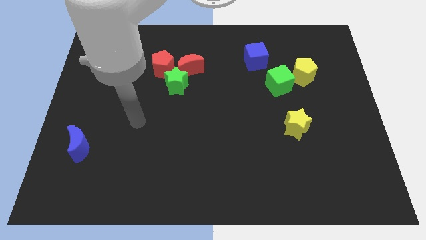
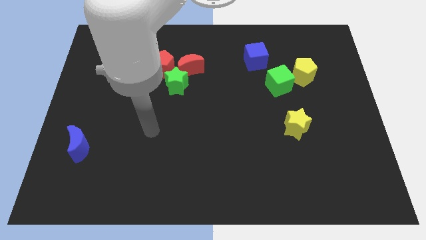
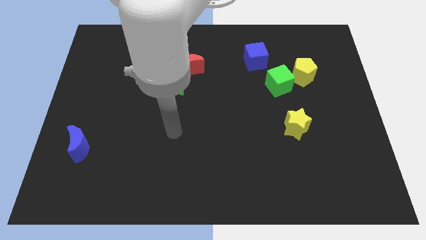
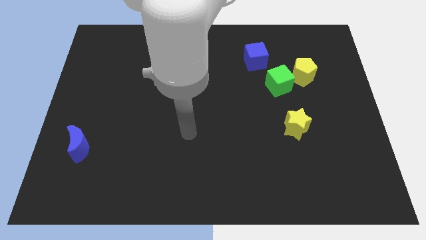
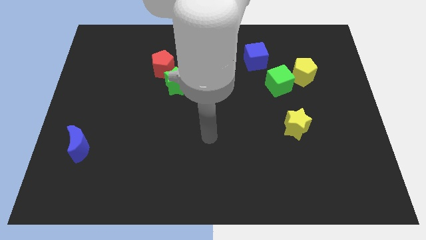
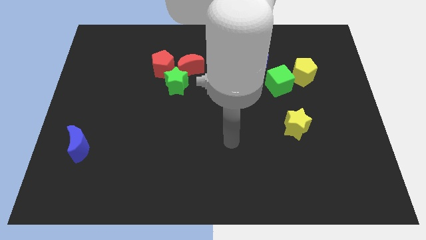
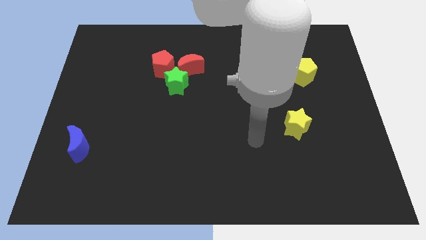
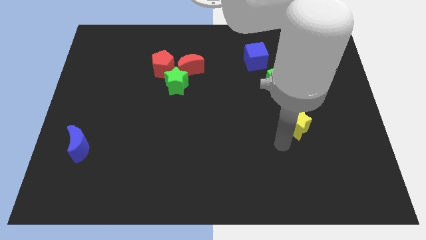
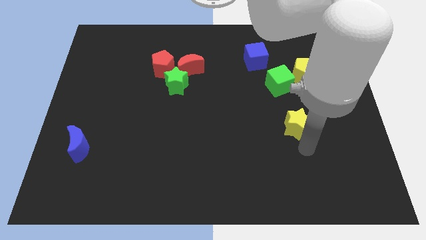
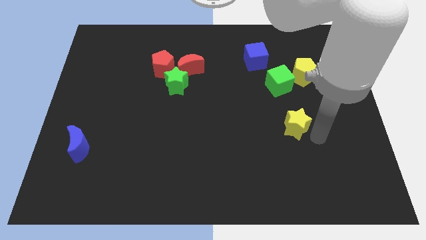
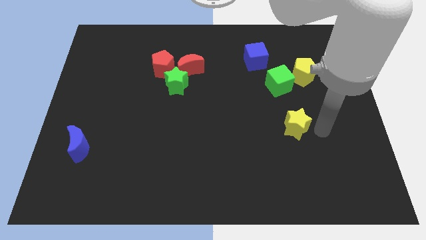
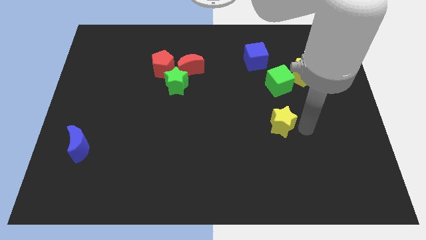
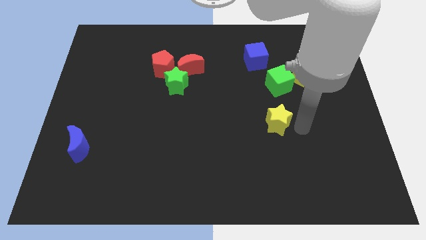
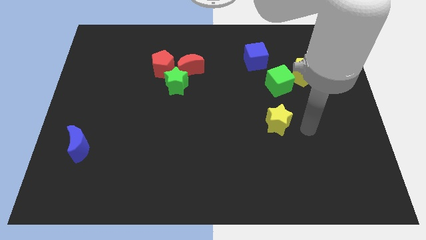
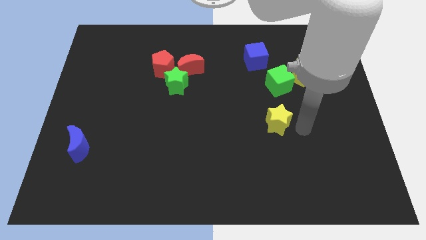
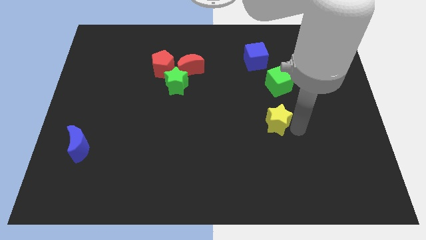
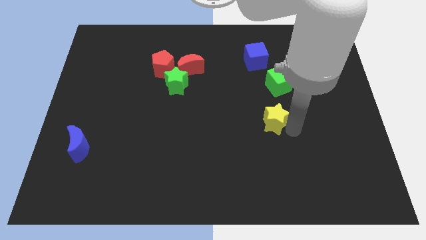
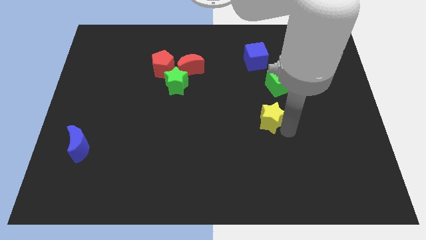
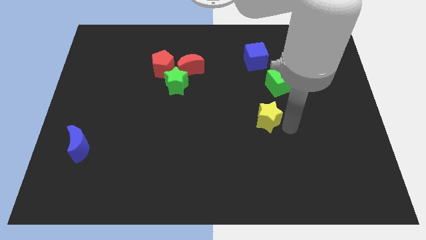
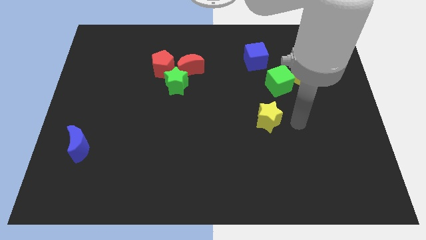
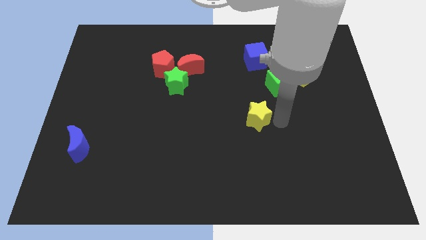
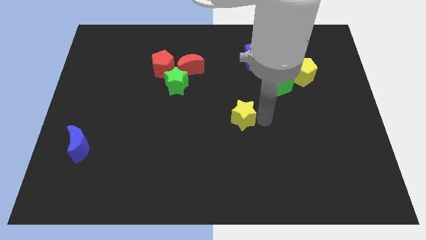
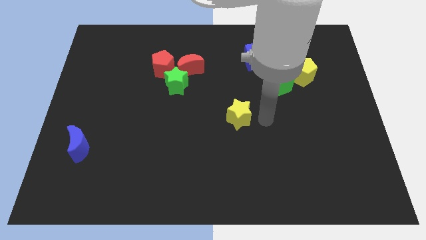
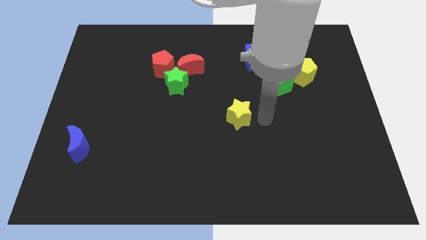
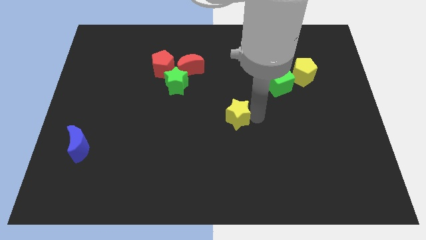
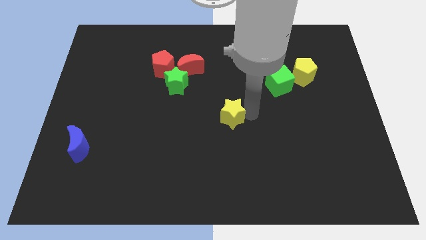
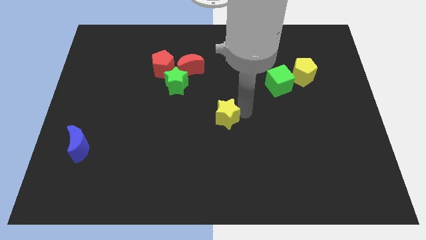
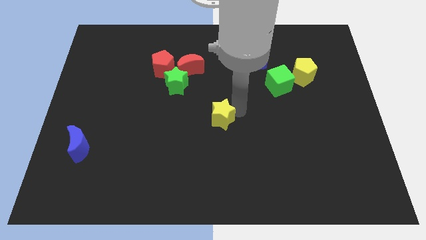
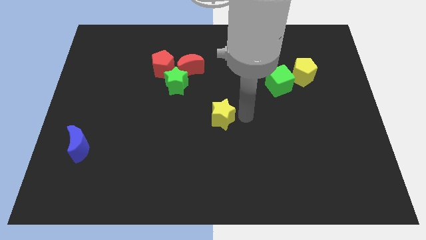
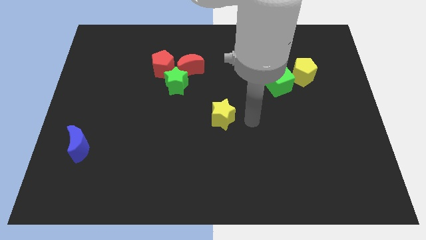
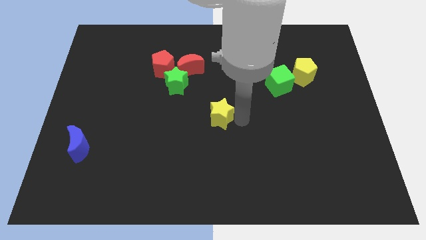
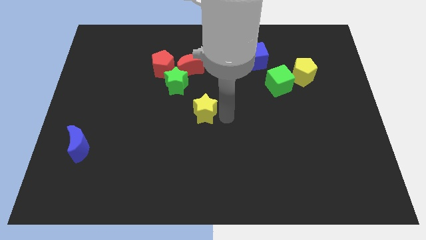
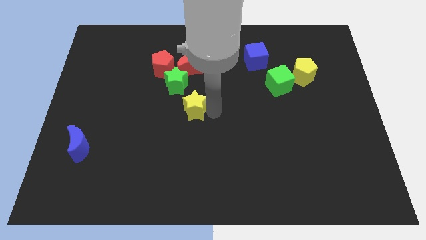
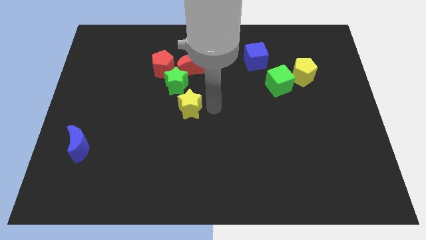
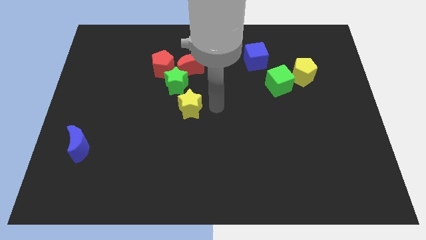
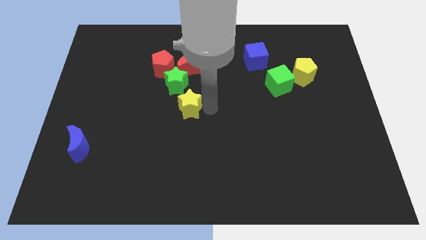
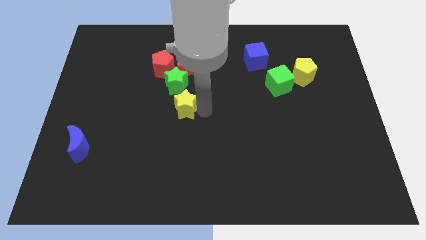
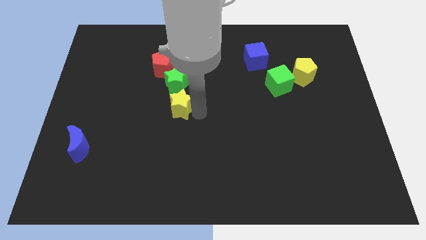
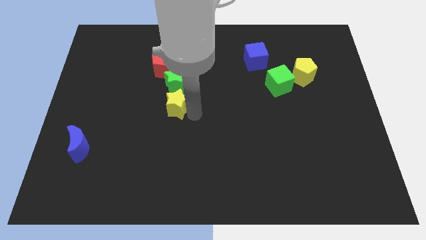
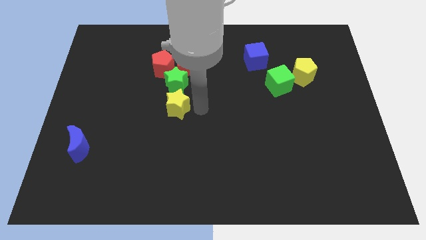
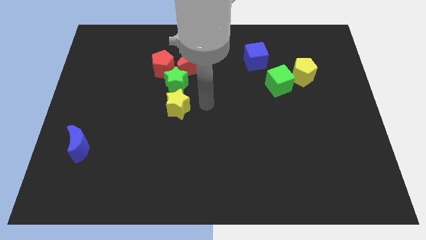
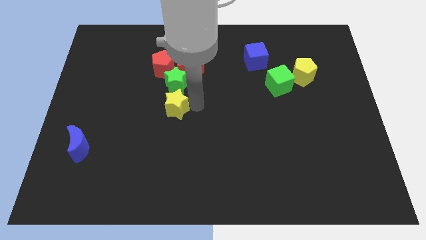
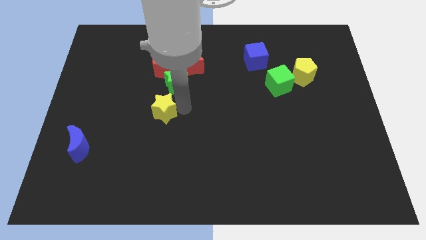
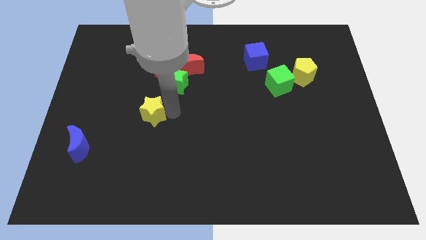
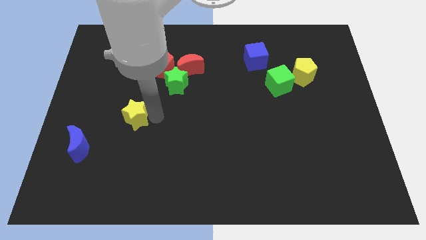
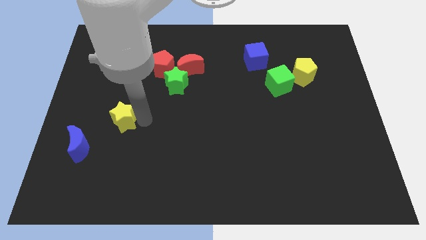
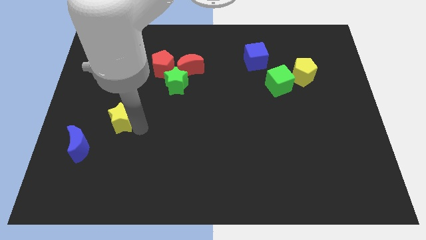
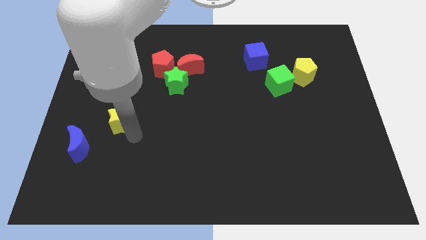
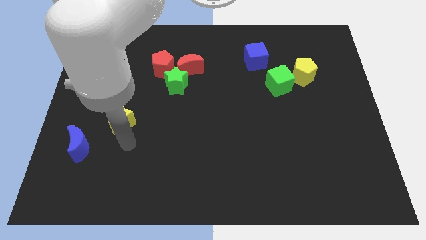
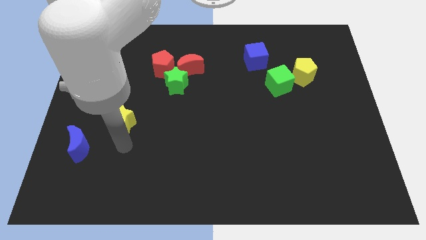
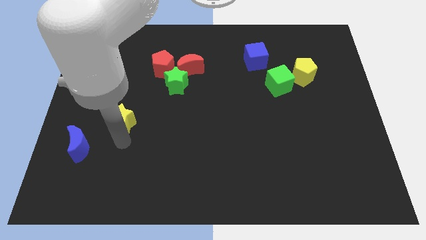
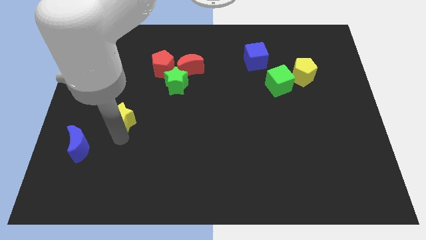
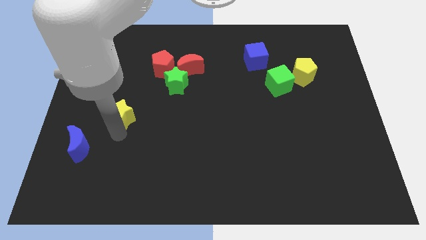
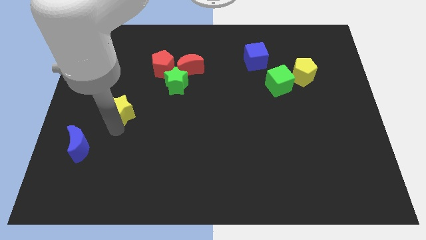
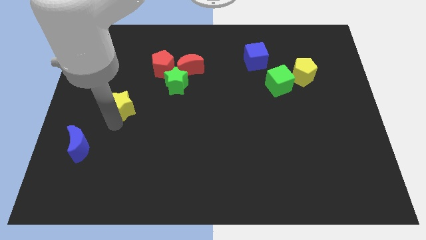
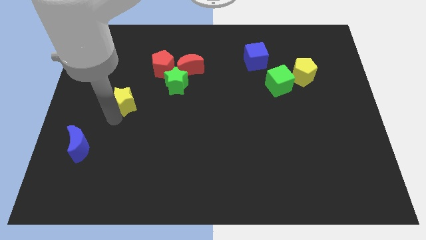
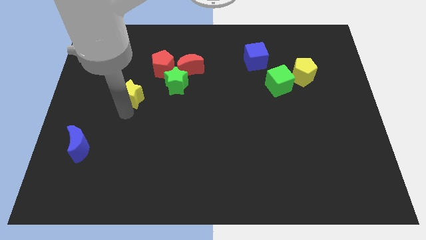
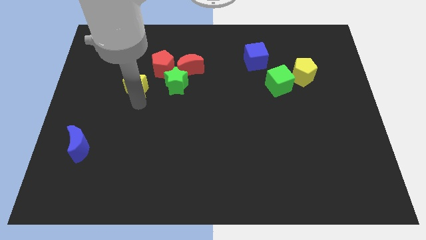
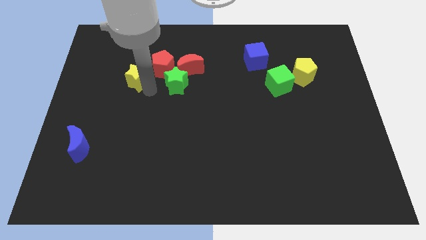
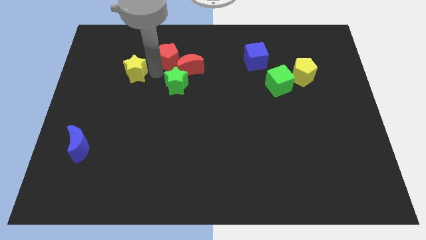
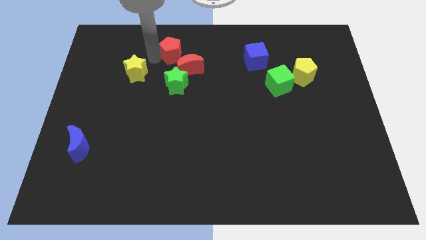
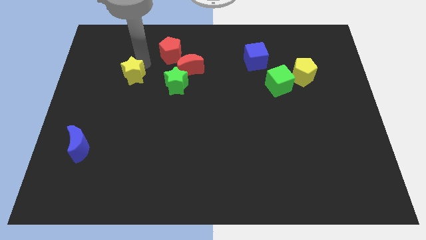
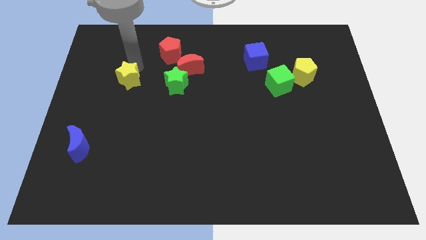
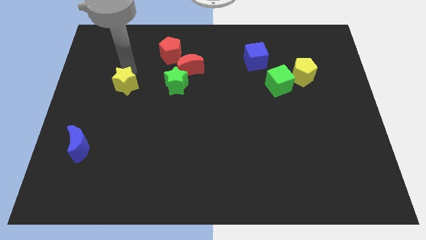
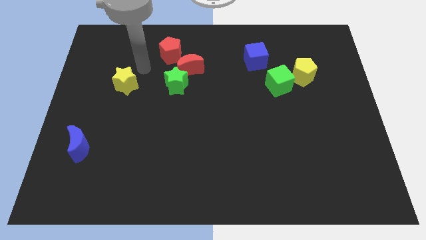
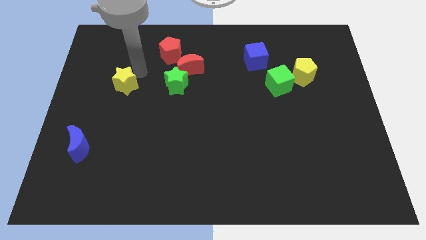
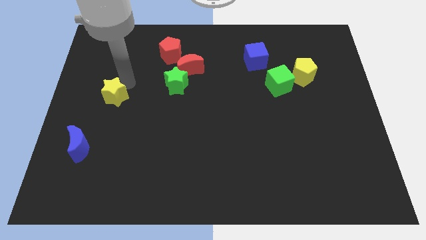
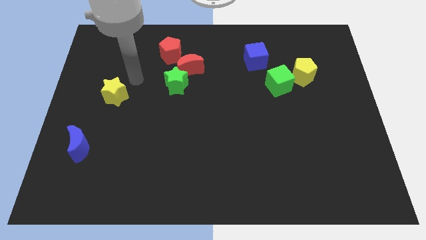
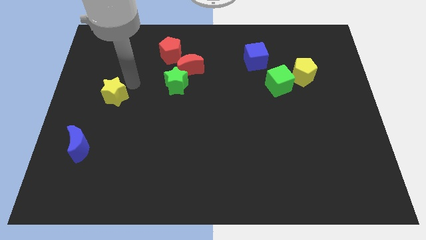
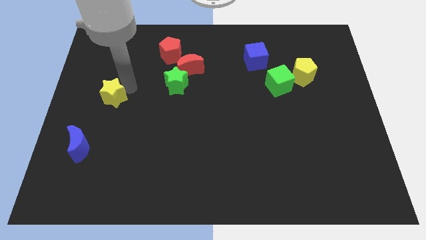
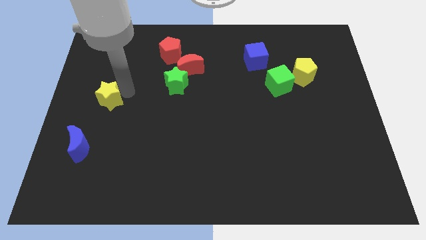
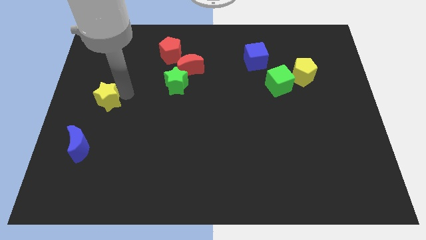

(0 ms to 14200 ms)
slide the yellow star to the left side
